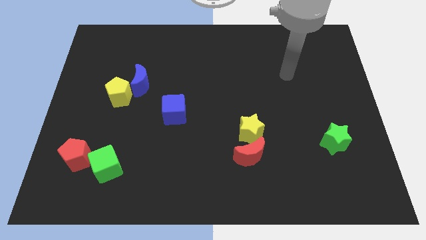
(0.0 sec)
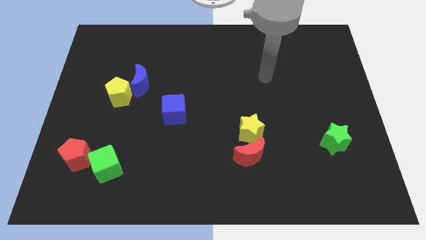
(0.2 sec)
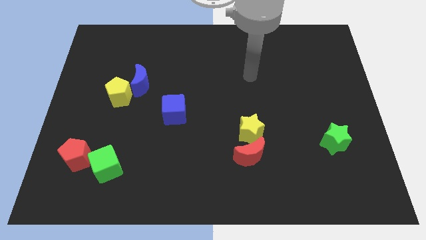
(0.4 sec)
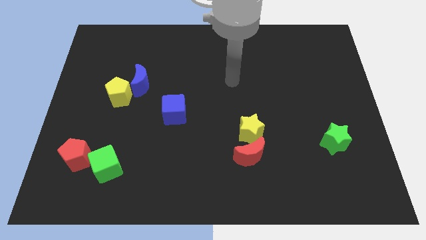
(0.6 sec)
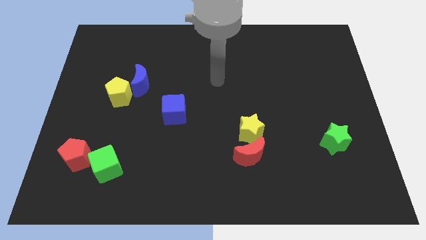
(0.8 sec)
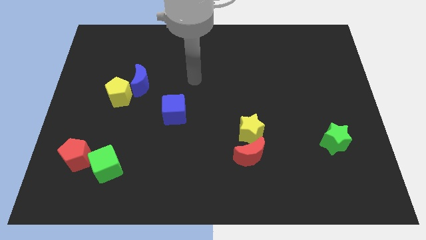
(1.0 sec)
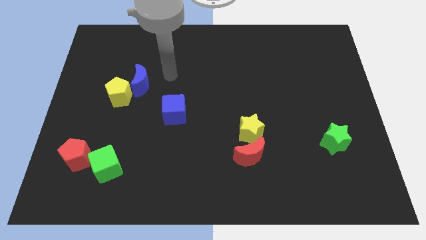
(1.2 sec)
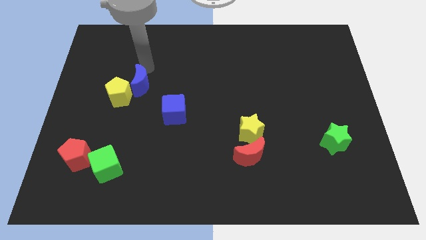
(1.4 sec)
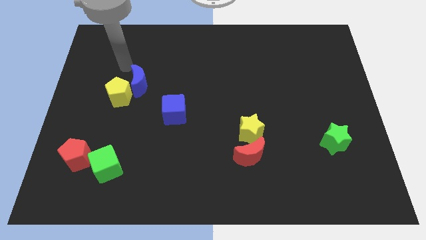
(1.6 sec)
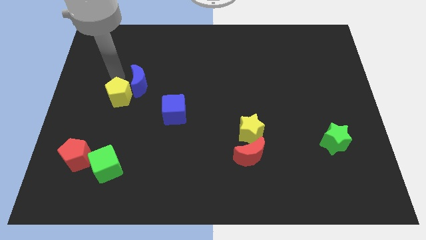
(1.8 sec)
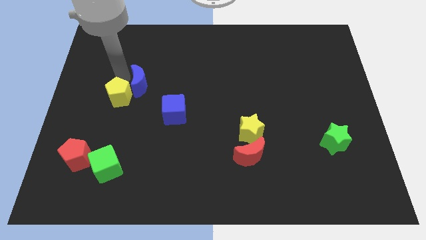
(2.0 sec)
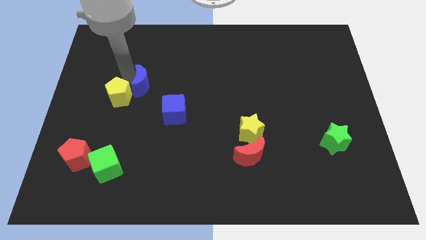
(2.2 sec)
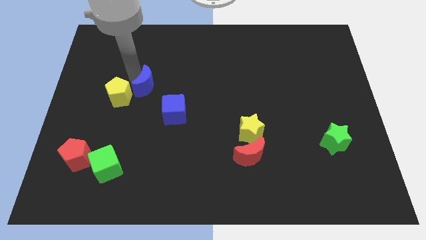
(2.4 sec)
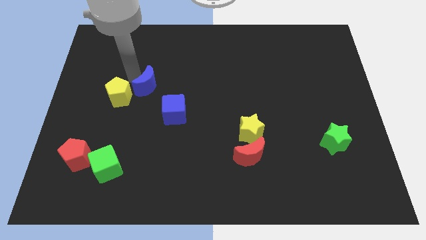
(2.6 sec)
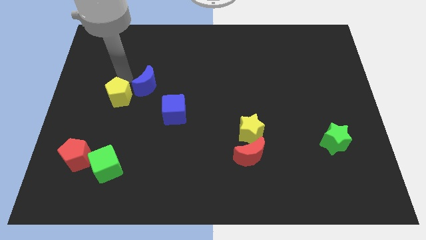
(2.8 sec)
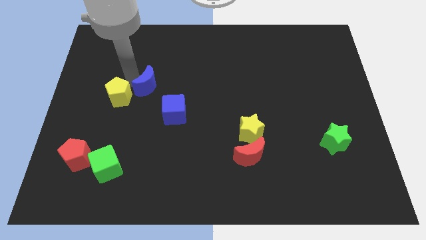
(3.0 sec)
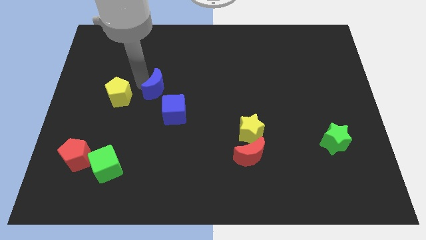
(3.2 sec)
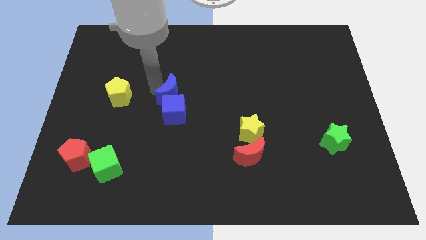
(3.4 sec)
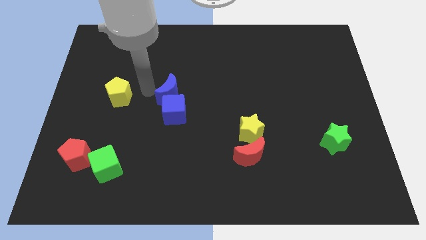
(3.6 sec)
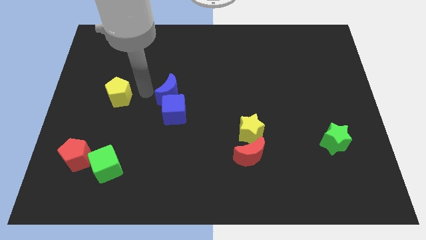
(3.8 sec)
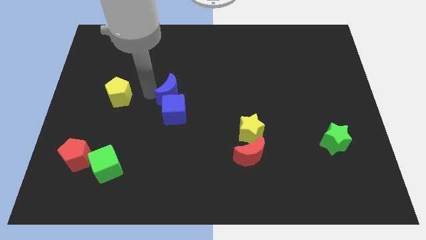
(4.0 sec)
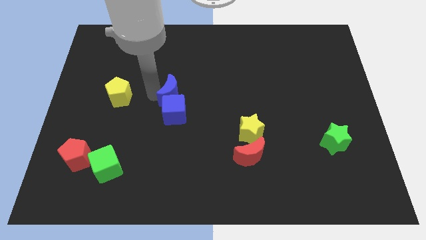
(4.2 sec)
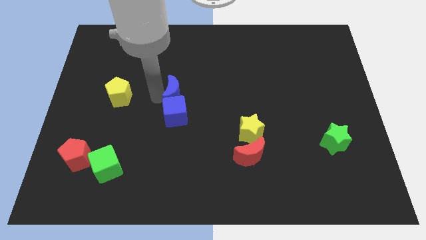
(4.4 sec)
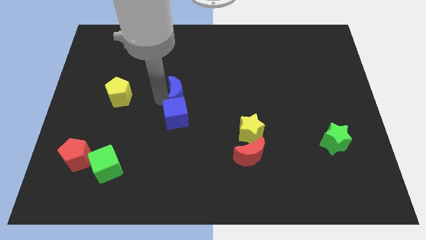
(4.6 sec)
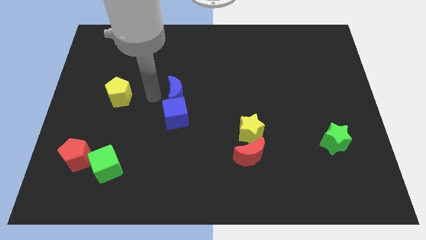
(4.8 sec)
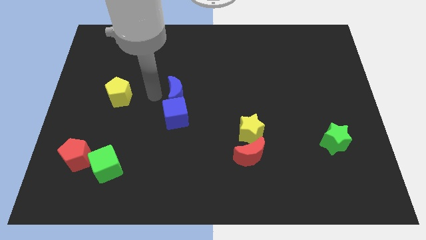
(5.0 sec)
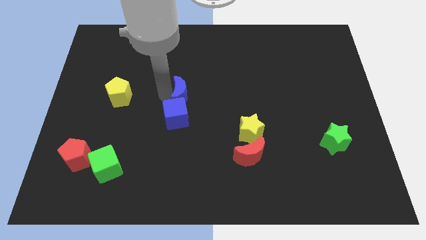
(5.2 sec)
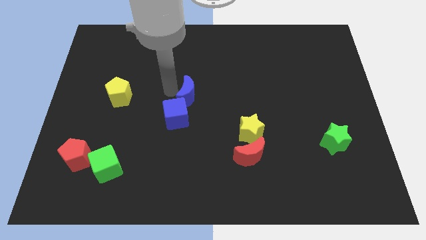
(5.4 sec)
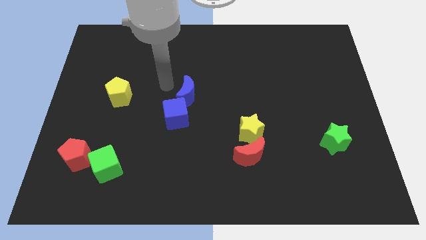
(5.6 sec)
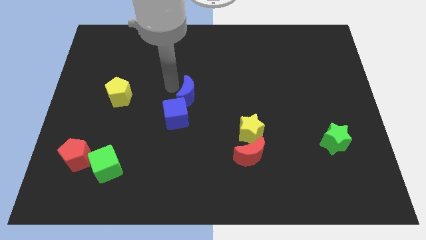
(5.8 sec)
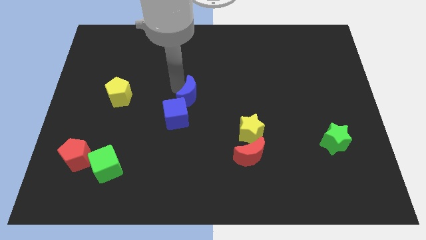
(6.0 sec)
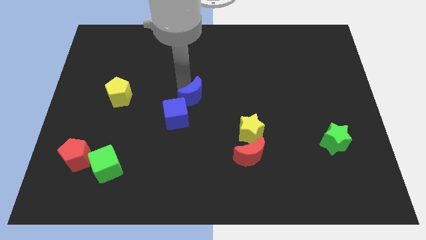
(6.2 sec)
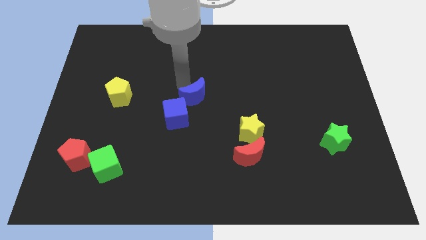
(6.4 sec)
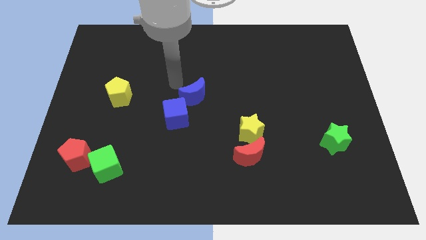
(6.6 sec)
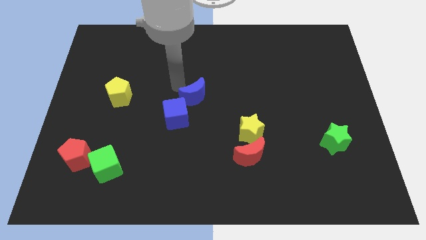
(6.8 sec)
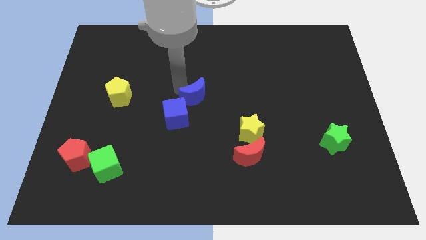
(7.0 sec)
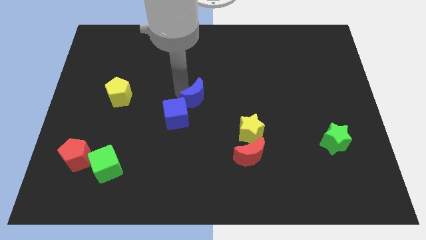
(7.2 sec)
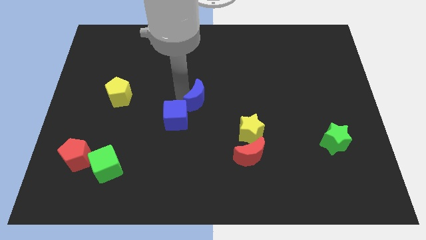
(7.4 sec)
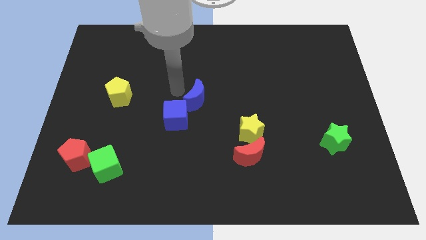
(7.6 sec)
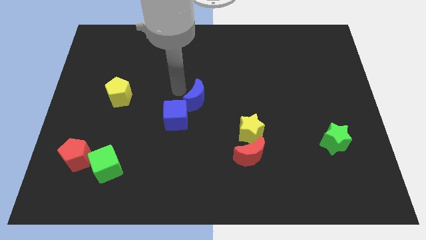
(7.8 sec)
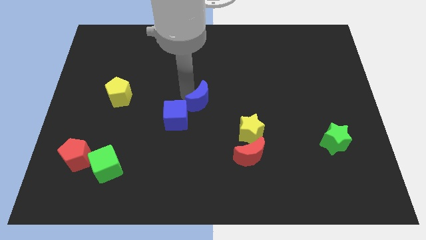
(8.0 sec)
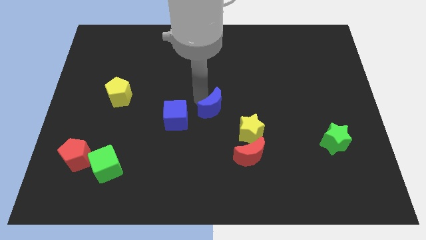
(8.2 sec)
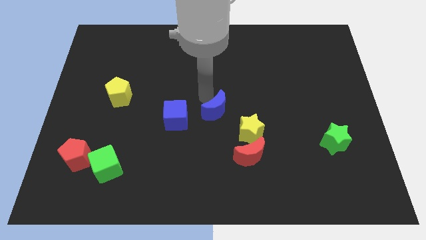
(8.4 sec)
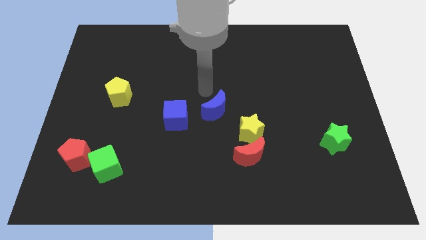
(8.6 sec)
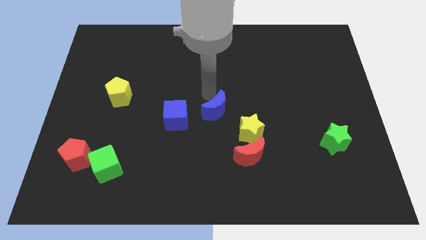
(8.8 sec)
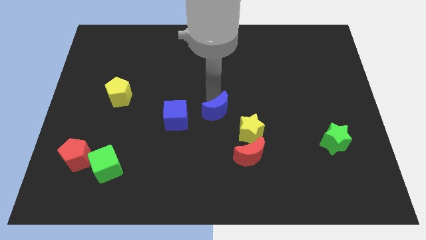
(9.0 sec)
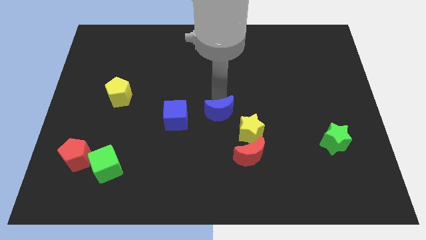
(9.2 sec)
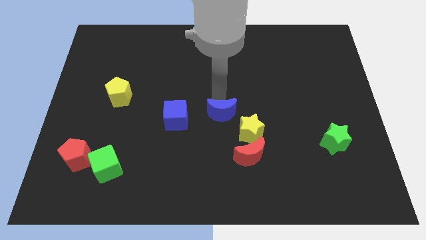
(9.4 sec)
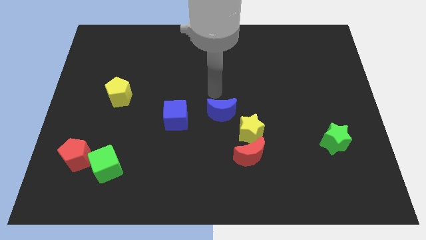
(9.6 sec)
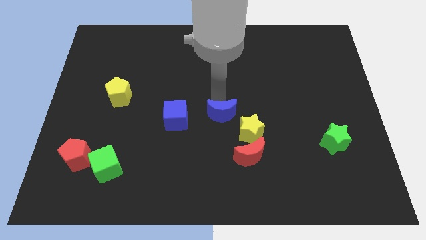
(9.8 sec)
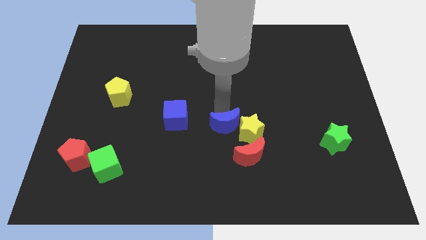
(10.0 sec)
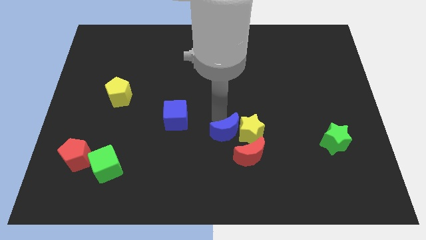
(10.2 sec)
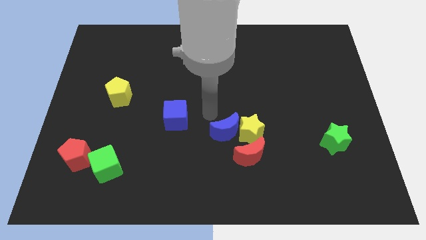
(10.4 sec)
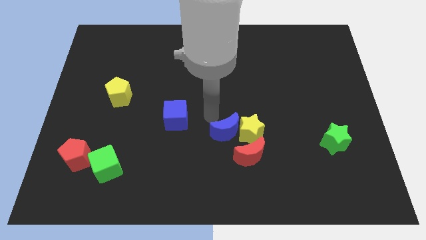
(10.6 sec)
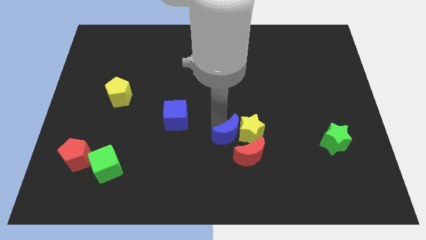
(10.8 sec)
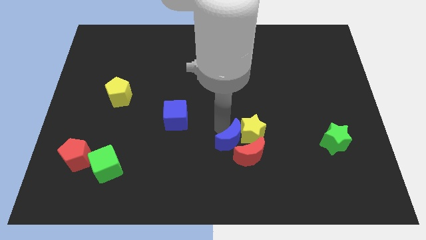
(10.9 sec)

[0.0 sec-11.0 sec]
move the blue moon towards the red moon
